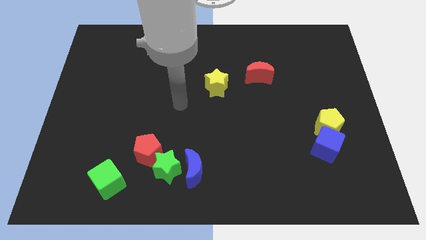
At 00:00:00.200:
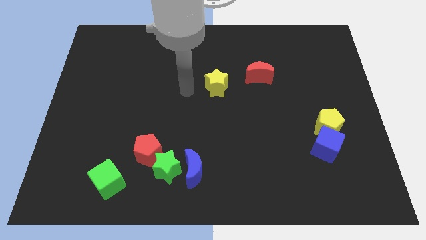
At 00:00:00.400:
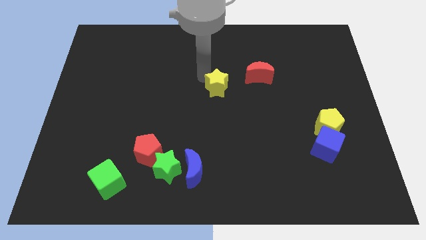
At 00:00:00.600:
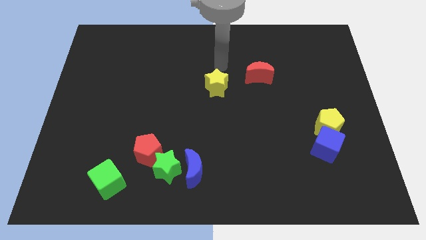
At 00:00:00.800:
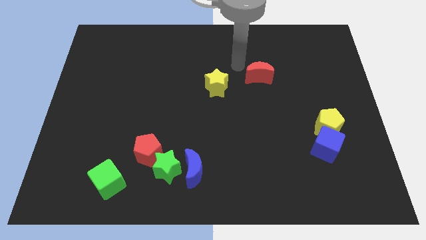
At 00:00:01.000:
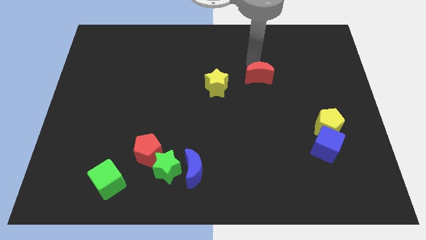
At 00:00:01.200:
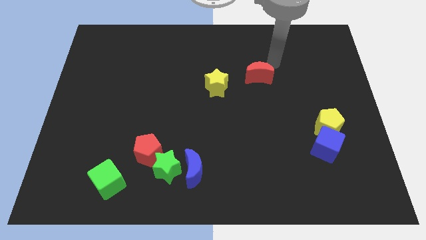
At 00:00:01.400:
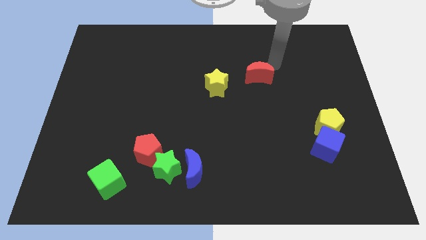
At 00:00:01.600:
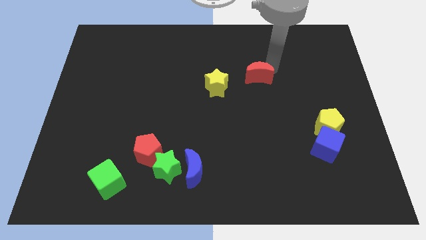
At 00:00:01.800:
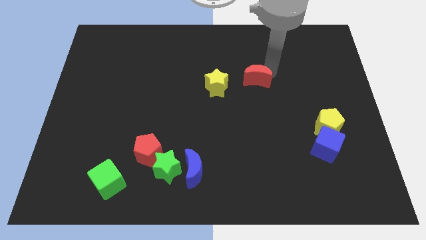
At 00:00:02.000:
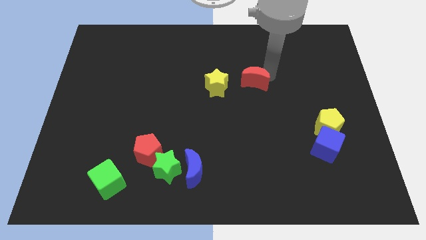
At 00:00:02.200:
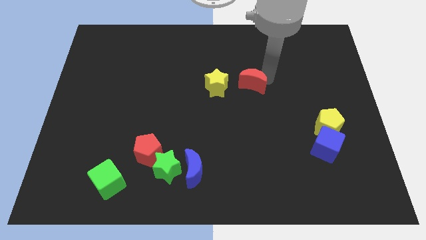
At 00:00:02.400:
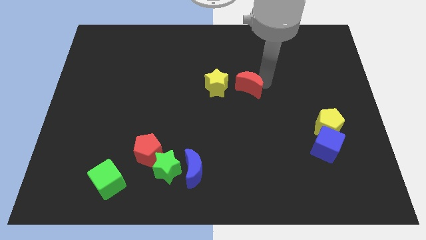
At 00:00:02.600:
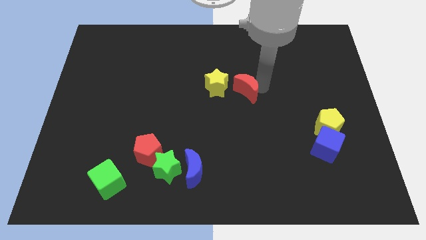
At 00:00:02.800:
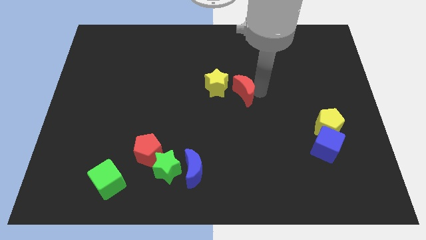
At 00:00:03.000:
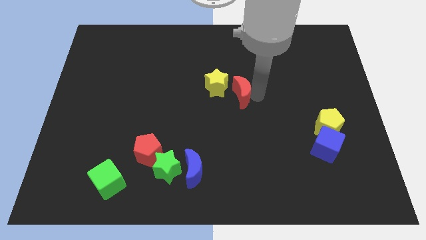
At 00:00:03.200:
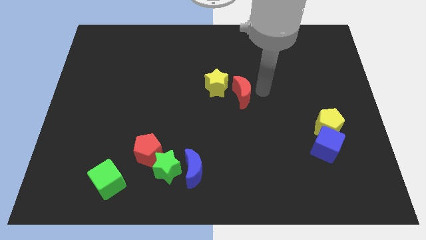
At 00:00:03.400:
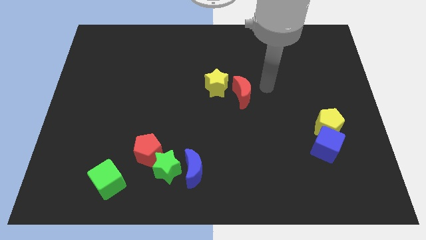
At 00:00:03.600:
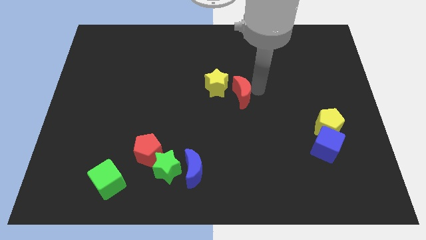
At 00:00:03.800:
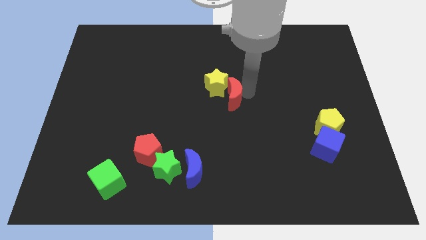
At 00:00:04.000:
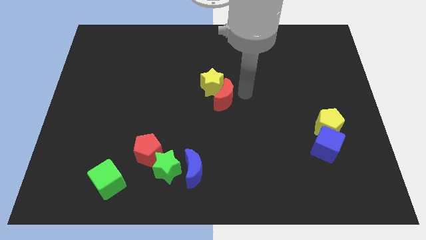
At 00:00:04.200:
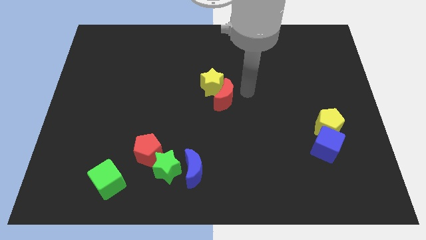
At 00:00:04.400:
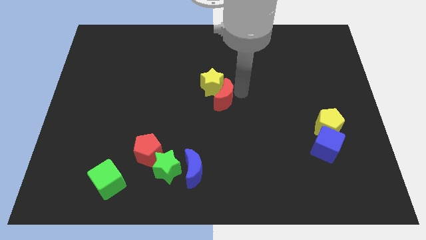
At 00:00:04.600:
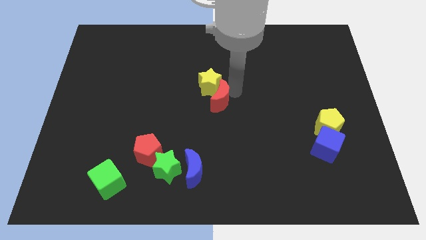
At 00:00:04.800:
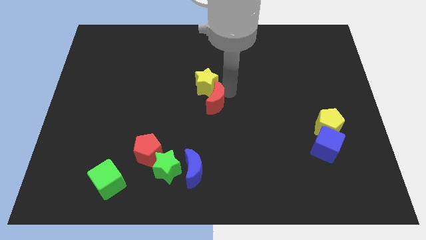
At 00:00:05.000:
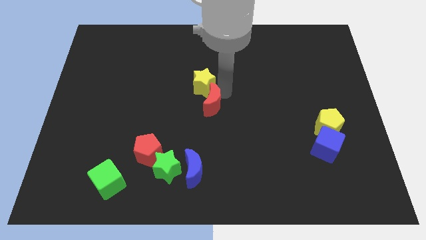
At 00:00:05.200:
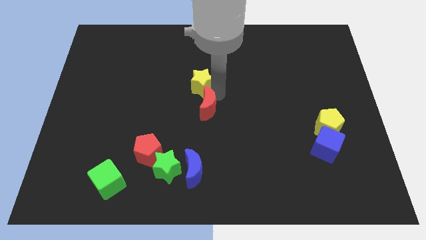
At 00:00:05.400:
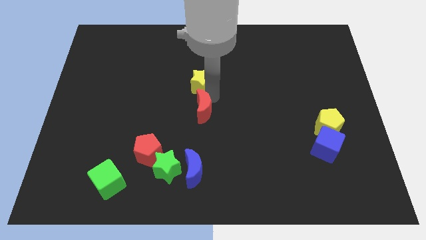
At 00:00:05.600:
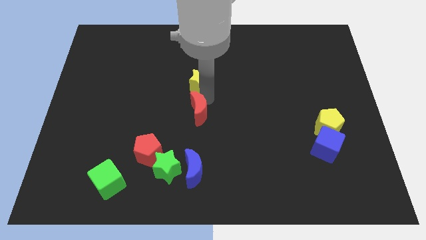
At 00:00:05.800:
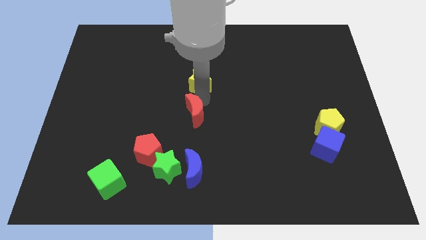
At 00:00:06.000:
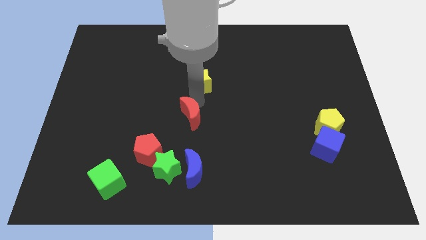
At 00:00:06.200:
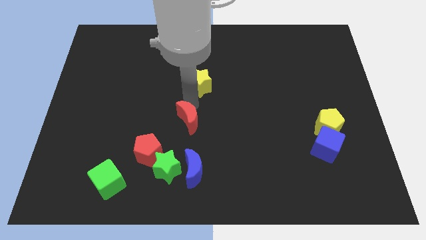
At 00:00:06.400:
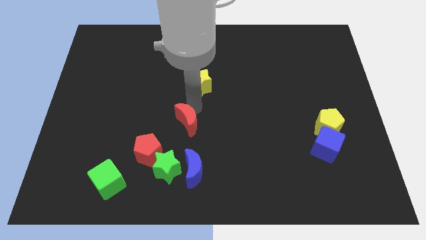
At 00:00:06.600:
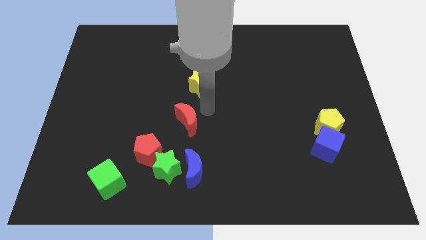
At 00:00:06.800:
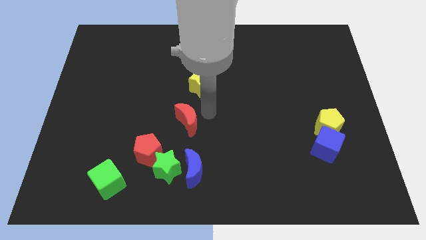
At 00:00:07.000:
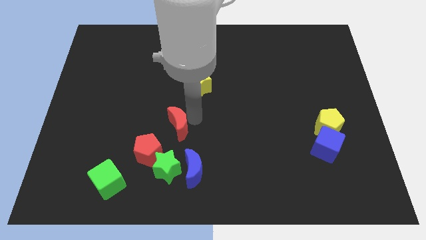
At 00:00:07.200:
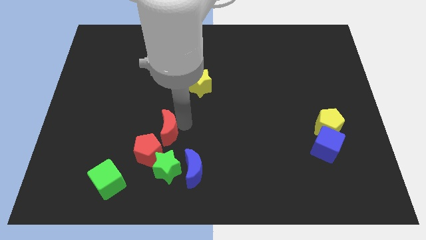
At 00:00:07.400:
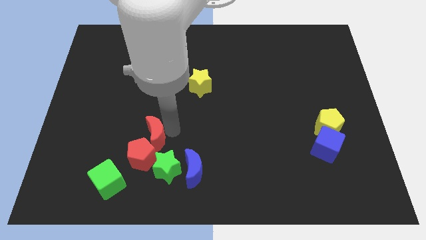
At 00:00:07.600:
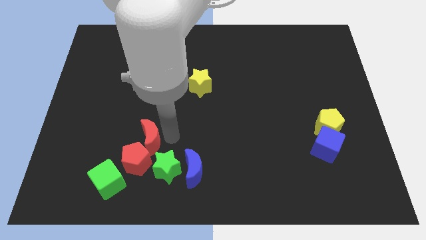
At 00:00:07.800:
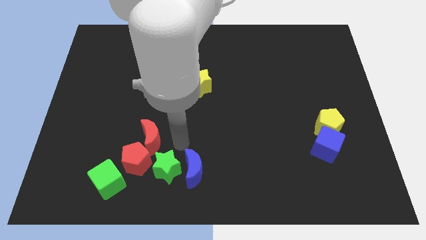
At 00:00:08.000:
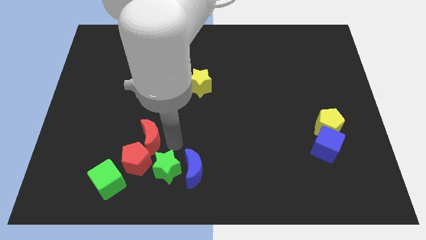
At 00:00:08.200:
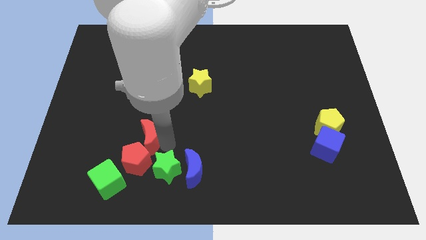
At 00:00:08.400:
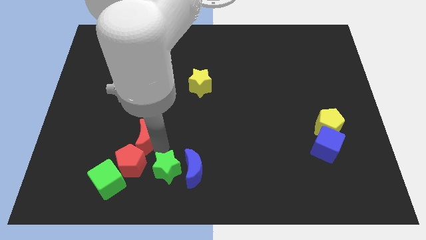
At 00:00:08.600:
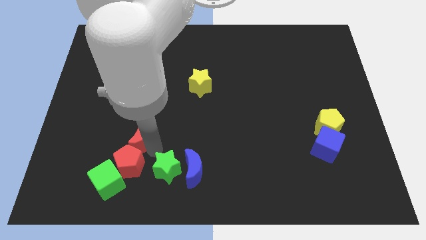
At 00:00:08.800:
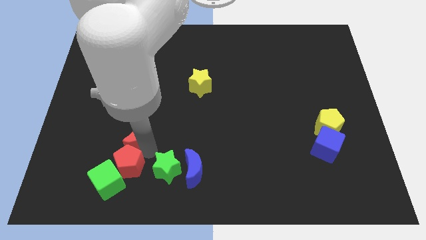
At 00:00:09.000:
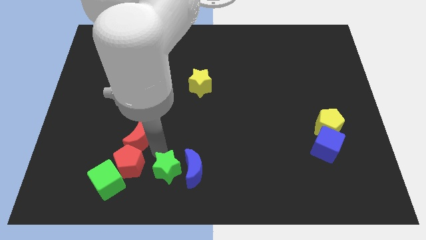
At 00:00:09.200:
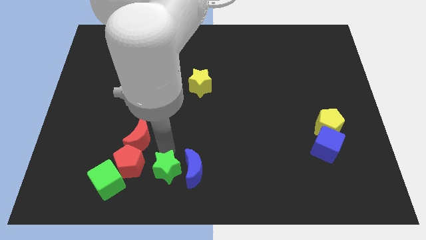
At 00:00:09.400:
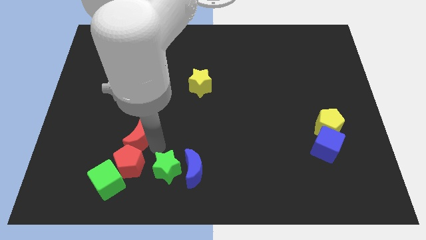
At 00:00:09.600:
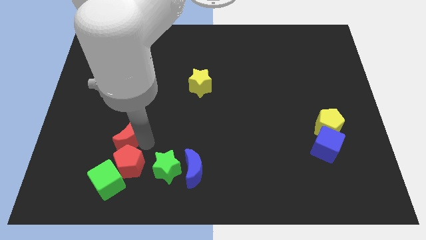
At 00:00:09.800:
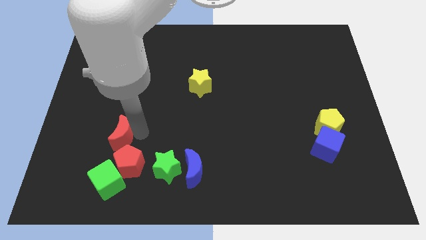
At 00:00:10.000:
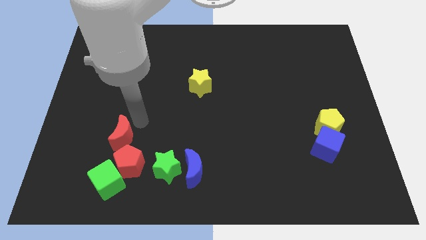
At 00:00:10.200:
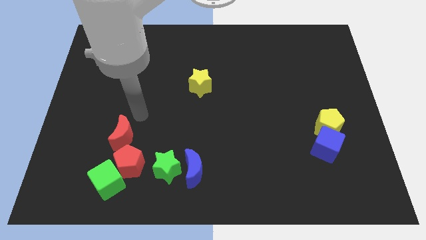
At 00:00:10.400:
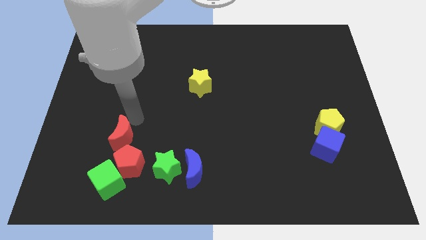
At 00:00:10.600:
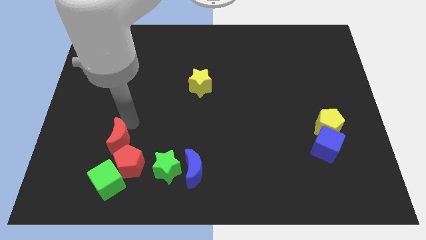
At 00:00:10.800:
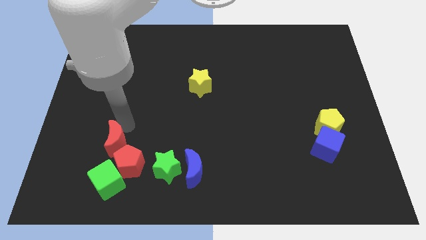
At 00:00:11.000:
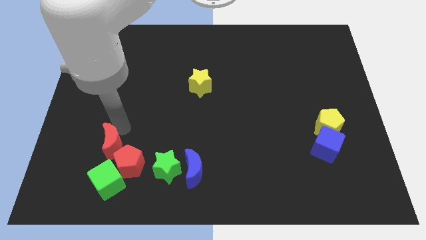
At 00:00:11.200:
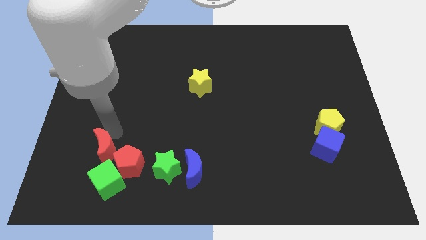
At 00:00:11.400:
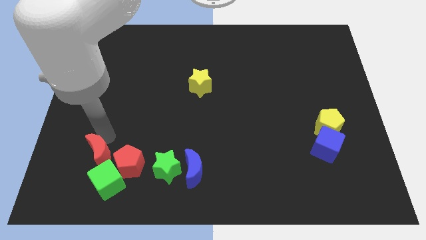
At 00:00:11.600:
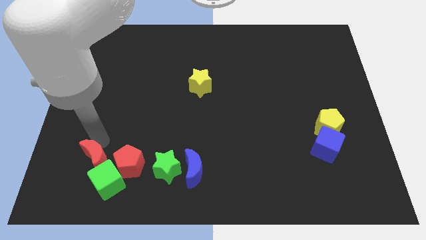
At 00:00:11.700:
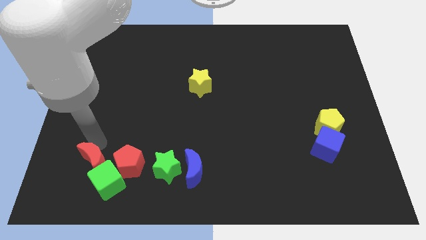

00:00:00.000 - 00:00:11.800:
slide the red moon close to the green cube

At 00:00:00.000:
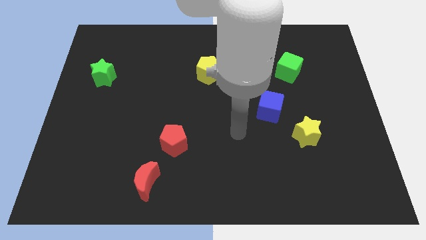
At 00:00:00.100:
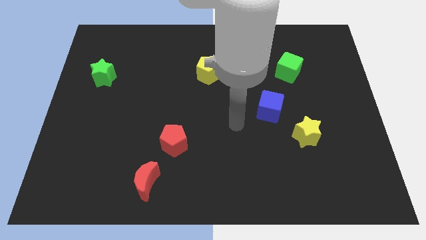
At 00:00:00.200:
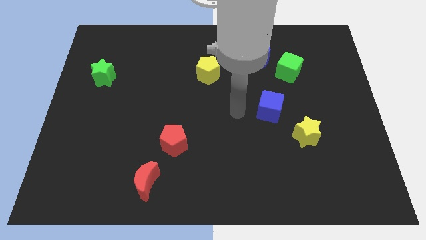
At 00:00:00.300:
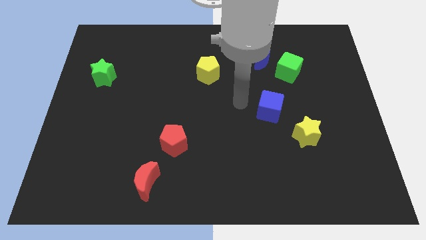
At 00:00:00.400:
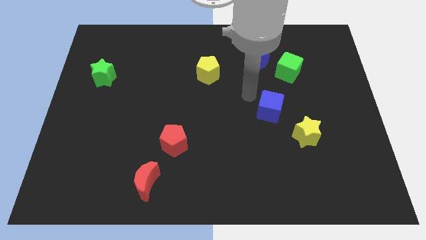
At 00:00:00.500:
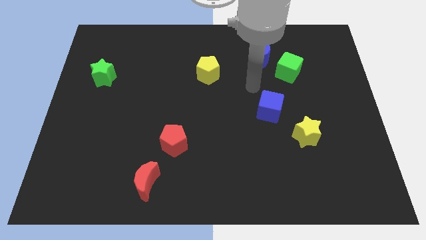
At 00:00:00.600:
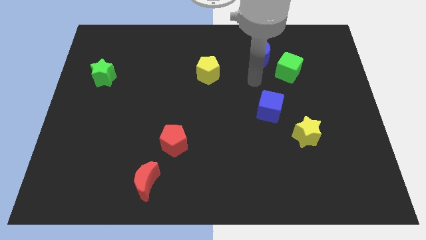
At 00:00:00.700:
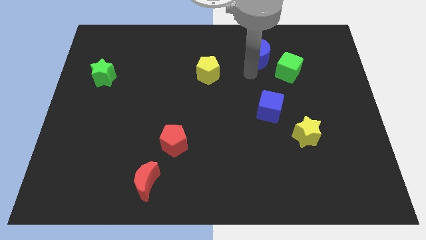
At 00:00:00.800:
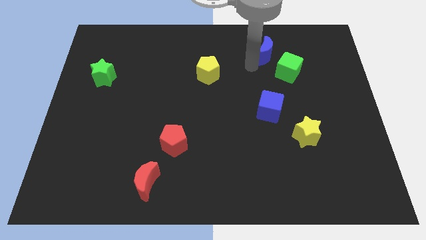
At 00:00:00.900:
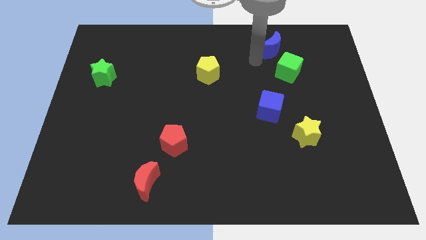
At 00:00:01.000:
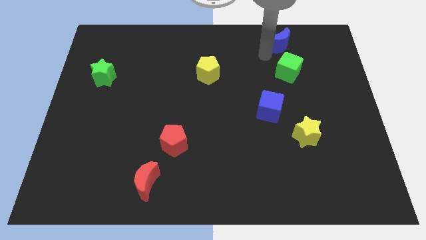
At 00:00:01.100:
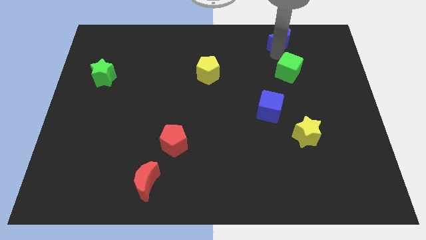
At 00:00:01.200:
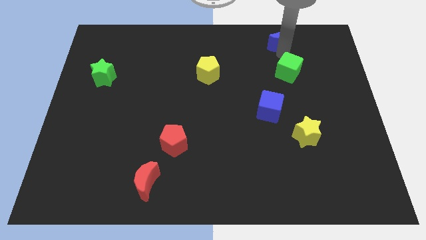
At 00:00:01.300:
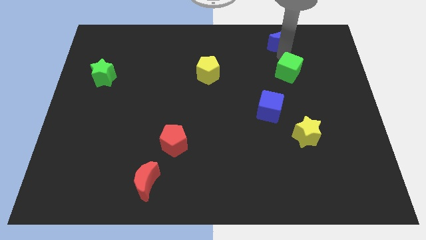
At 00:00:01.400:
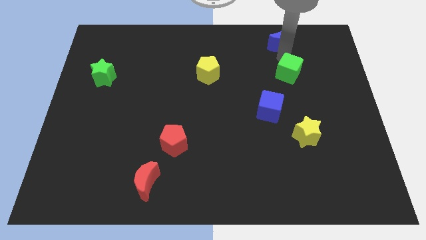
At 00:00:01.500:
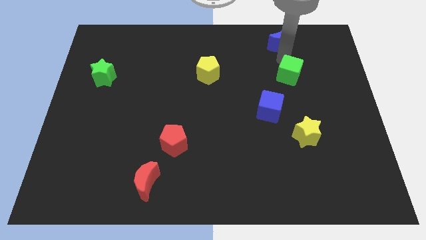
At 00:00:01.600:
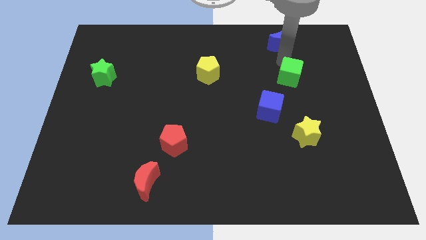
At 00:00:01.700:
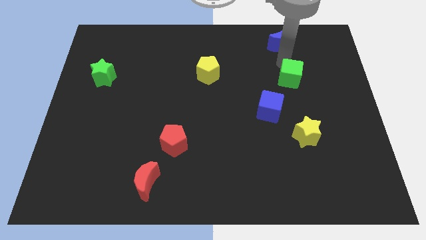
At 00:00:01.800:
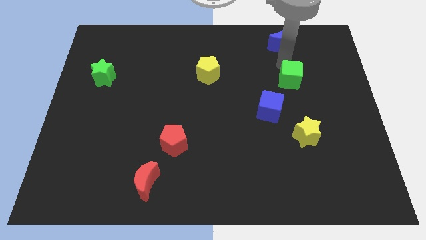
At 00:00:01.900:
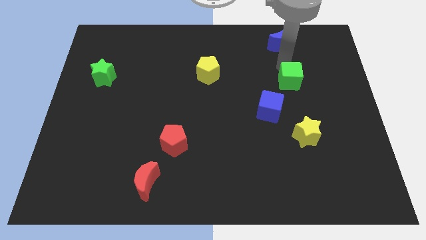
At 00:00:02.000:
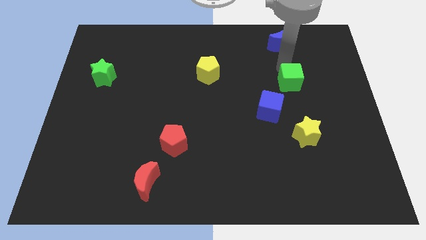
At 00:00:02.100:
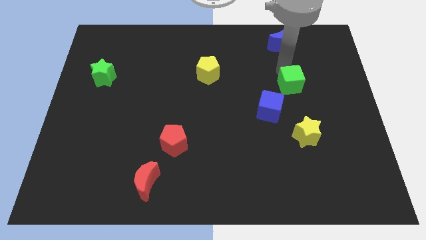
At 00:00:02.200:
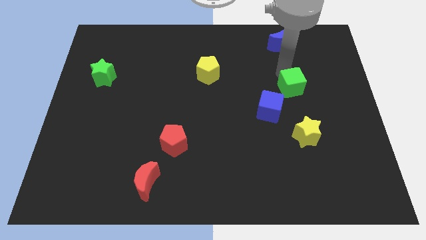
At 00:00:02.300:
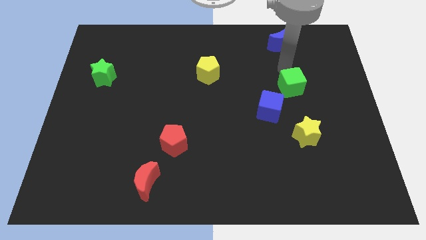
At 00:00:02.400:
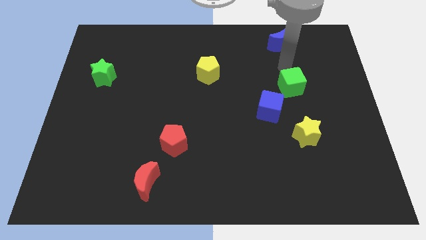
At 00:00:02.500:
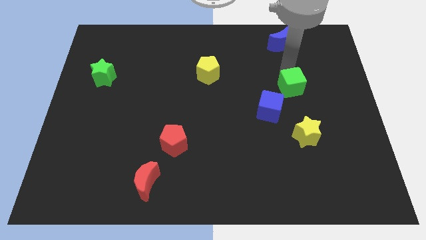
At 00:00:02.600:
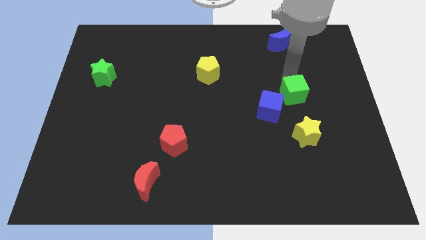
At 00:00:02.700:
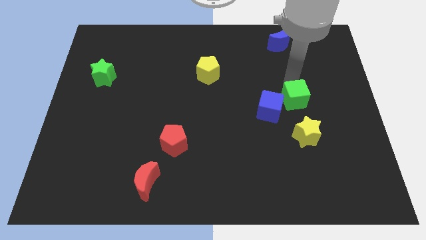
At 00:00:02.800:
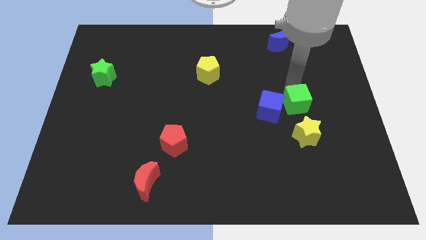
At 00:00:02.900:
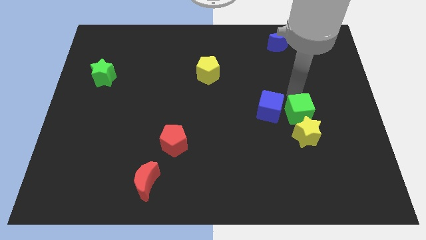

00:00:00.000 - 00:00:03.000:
move the green cube towards the yellow star
